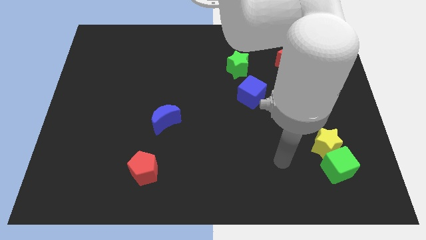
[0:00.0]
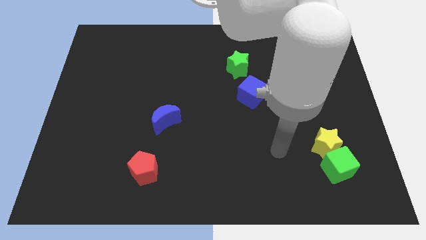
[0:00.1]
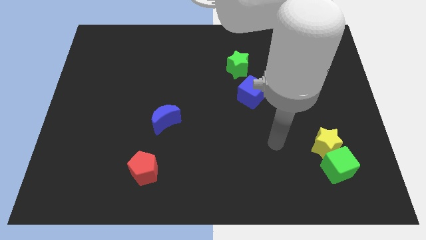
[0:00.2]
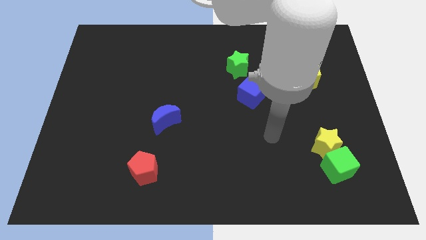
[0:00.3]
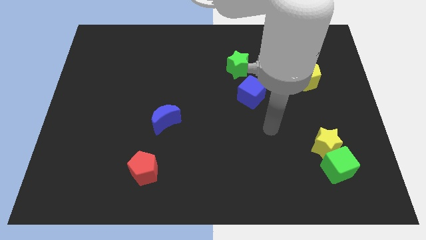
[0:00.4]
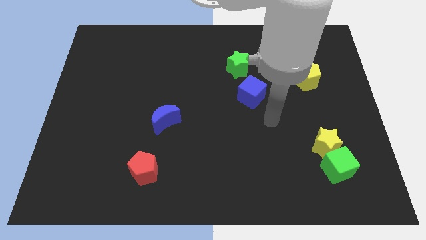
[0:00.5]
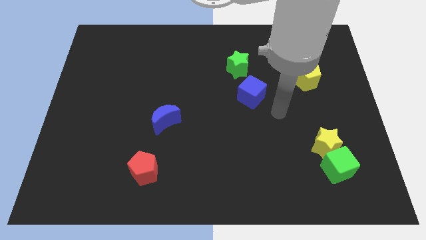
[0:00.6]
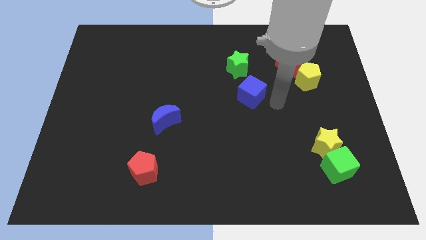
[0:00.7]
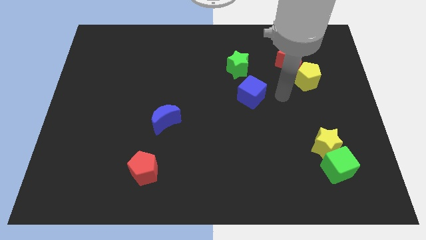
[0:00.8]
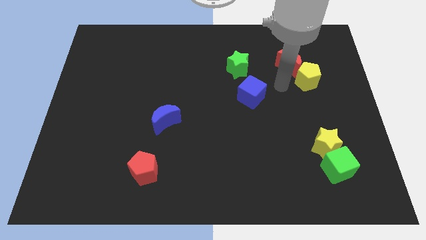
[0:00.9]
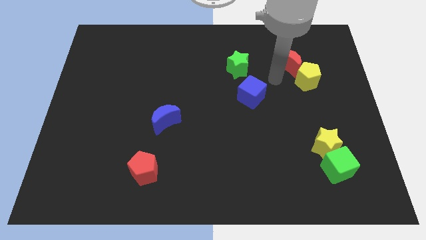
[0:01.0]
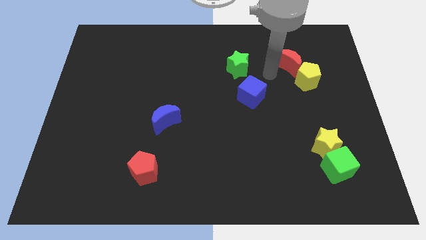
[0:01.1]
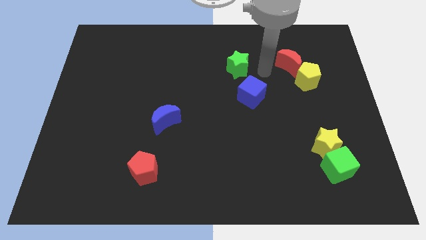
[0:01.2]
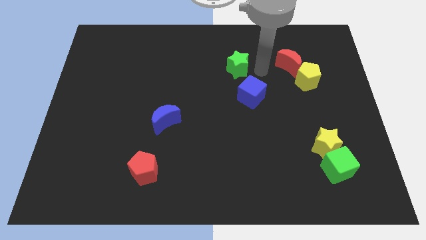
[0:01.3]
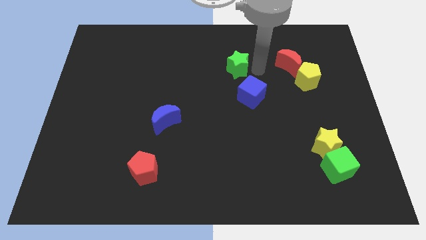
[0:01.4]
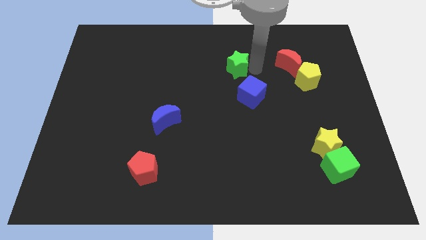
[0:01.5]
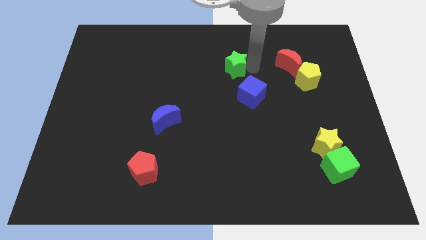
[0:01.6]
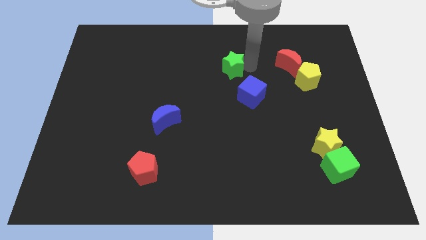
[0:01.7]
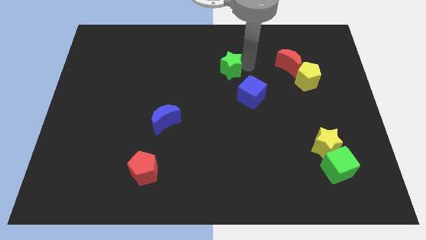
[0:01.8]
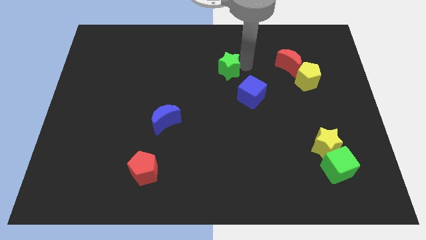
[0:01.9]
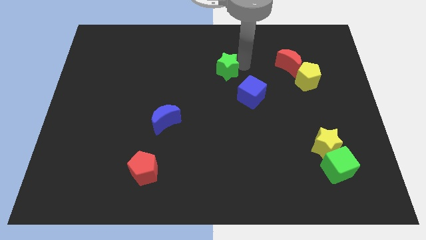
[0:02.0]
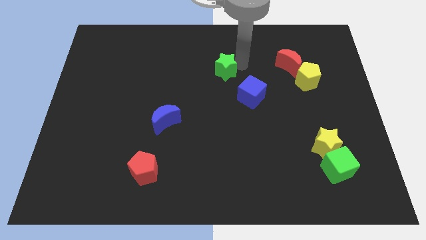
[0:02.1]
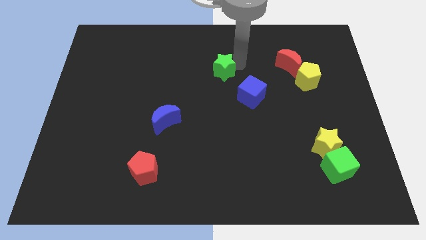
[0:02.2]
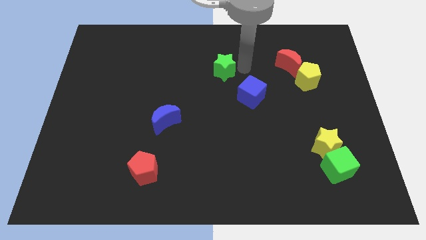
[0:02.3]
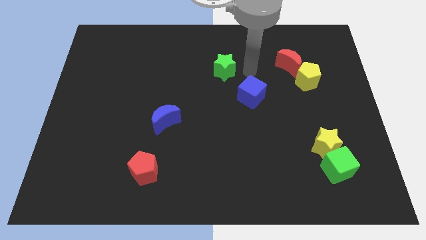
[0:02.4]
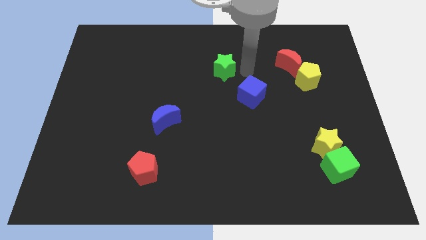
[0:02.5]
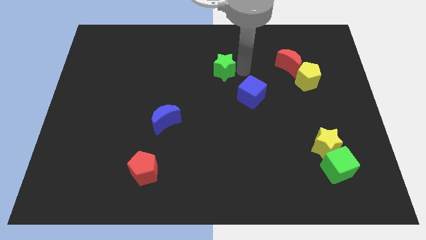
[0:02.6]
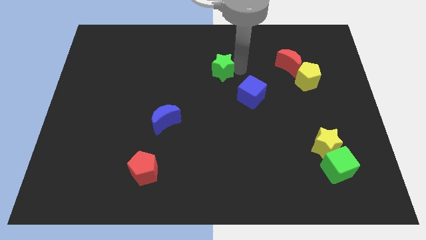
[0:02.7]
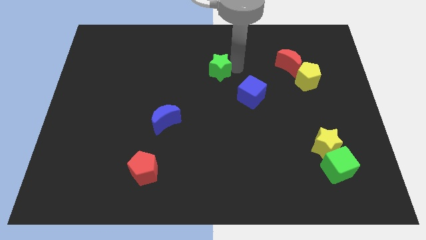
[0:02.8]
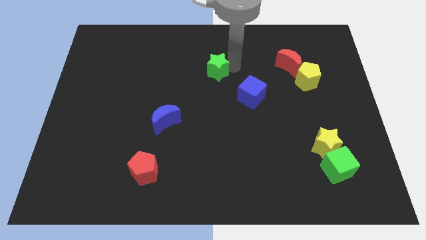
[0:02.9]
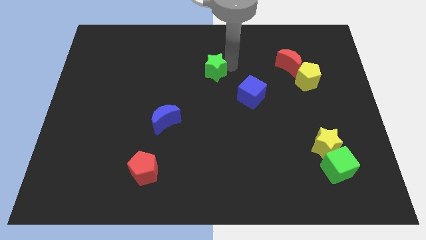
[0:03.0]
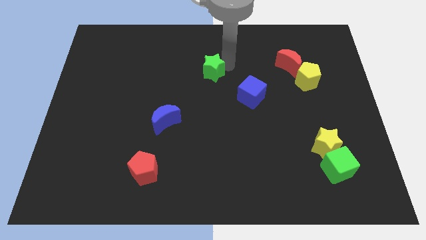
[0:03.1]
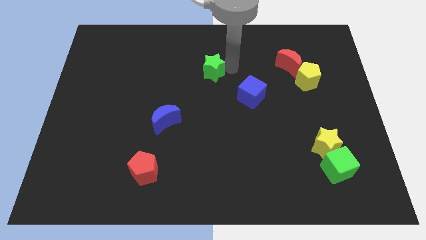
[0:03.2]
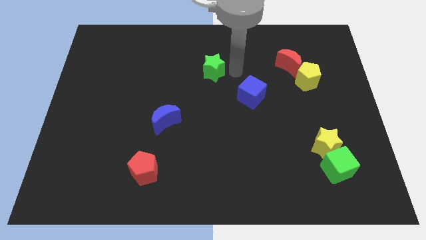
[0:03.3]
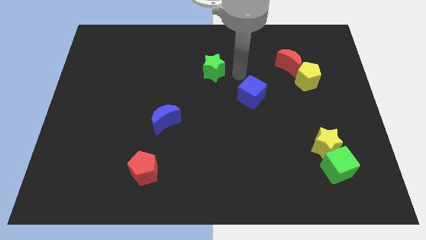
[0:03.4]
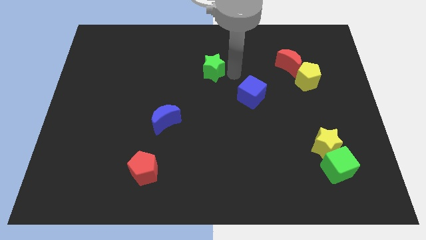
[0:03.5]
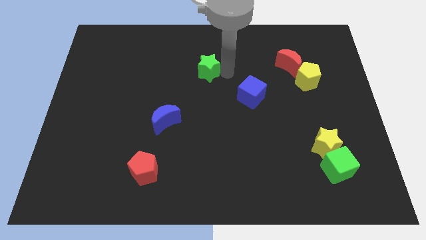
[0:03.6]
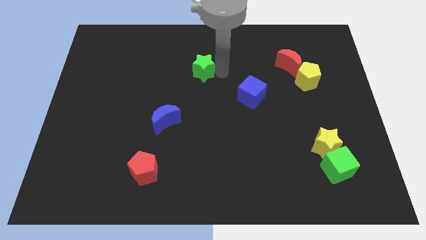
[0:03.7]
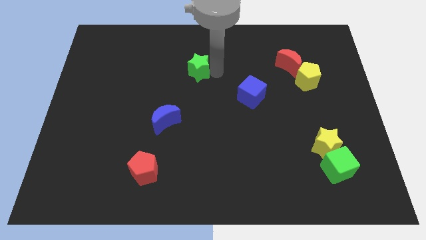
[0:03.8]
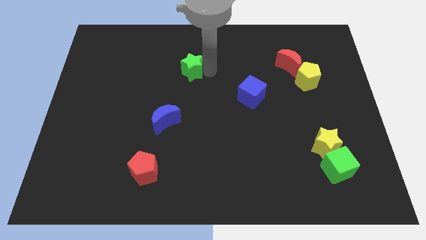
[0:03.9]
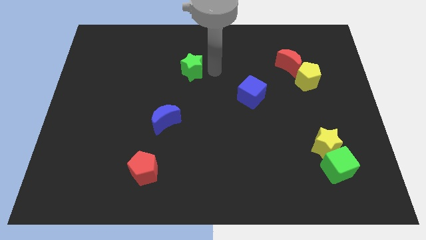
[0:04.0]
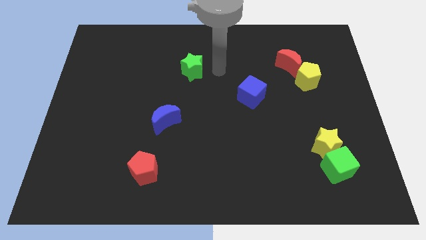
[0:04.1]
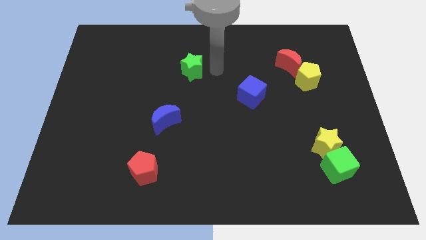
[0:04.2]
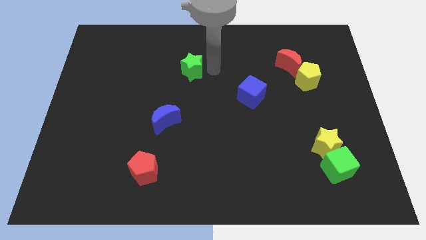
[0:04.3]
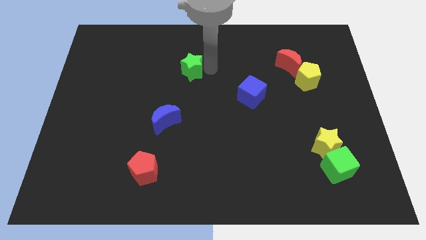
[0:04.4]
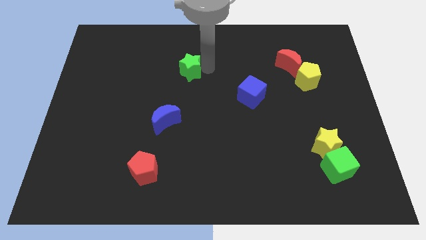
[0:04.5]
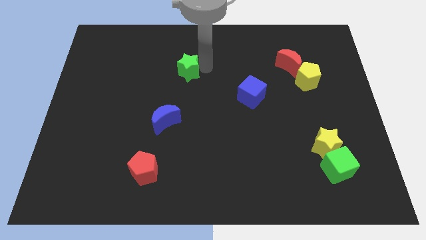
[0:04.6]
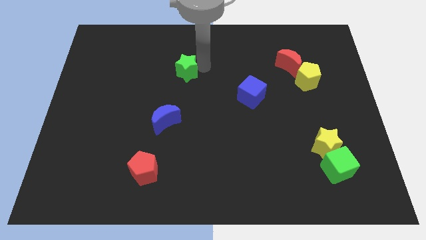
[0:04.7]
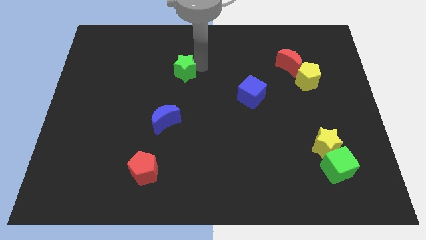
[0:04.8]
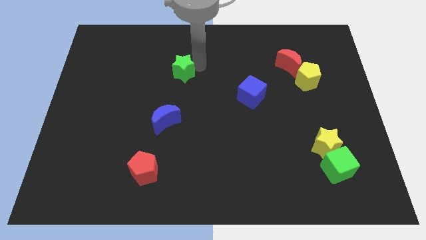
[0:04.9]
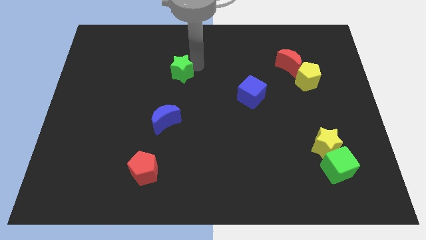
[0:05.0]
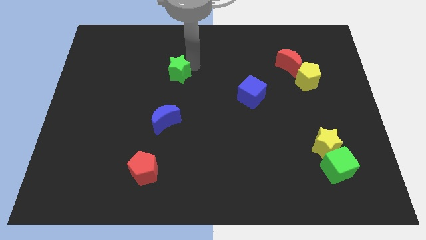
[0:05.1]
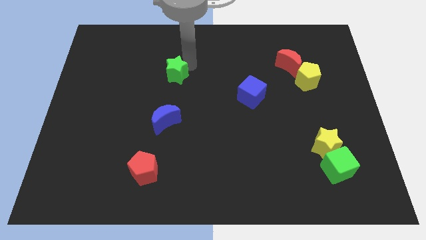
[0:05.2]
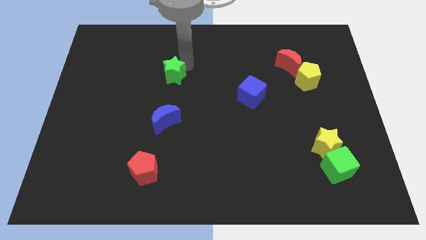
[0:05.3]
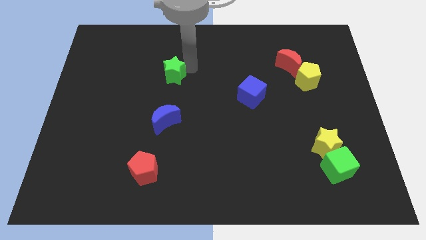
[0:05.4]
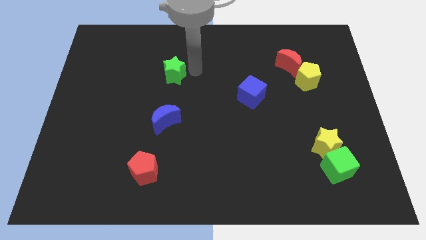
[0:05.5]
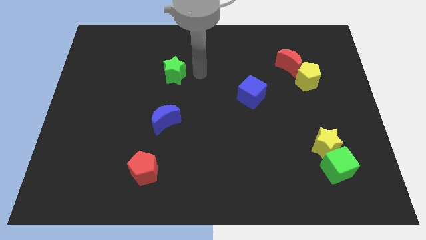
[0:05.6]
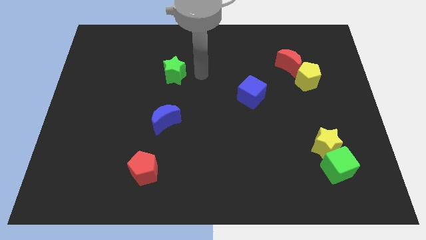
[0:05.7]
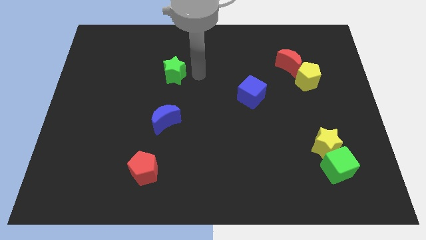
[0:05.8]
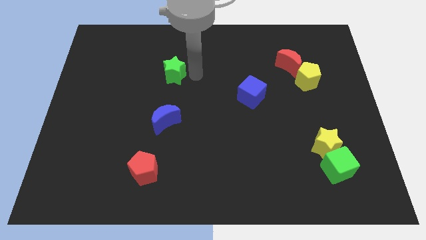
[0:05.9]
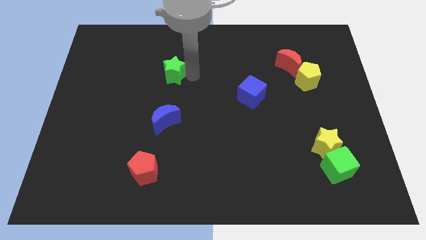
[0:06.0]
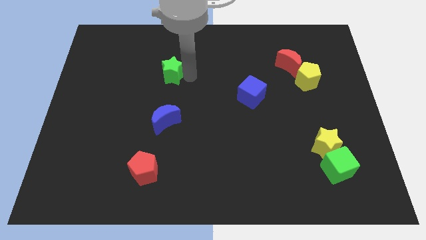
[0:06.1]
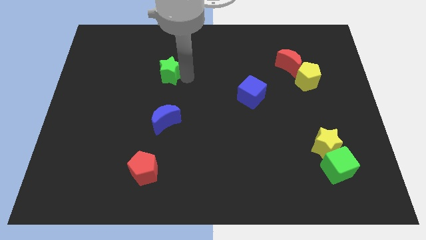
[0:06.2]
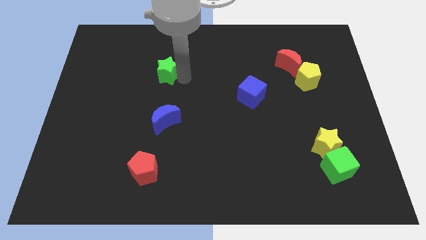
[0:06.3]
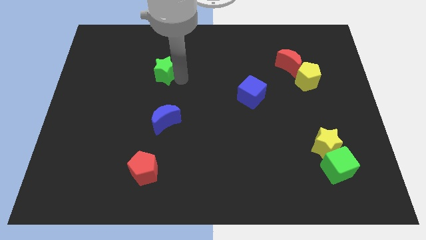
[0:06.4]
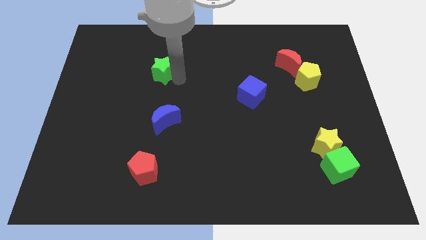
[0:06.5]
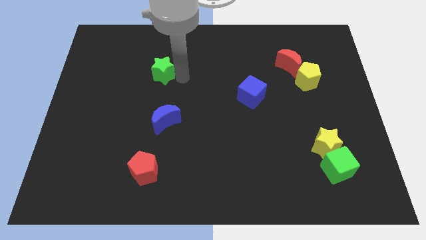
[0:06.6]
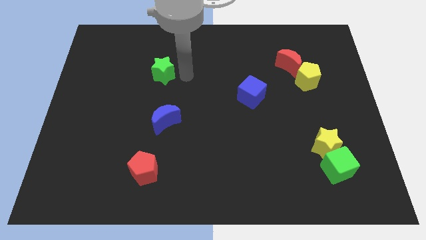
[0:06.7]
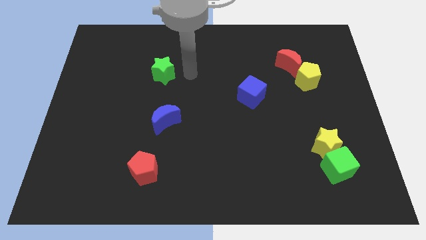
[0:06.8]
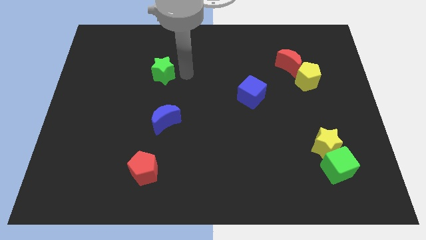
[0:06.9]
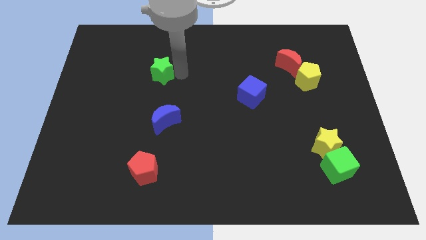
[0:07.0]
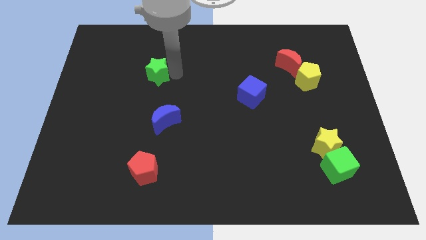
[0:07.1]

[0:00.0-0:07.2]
slide the green star left

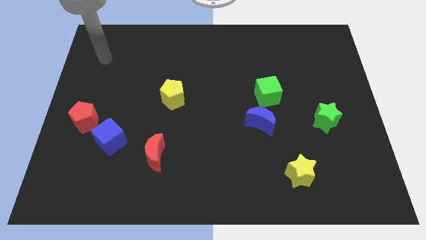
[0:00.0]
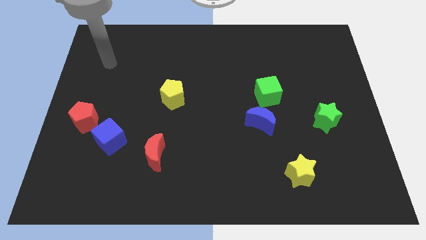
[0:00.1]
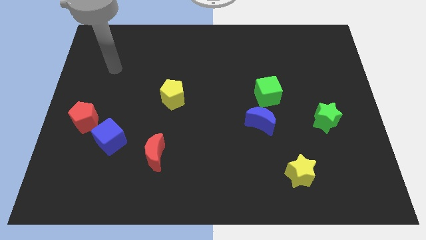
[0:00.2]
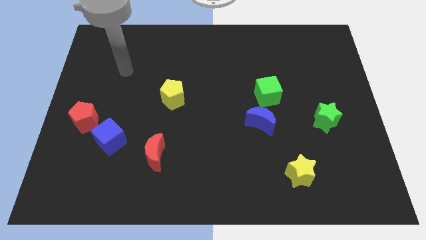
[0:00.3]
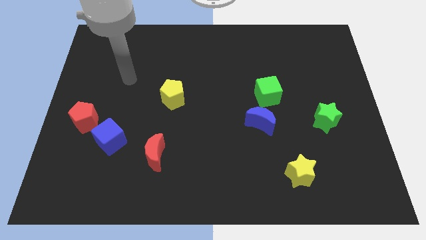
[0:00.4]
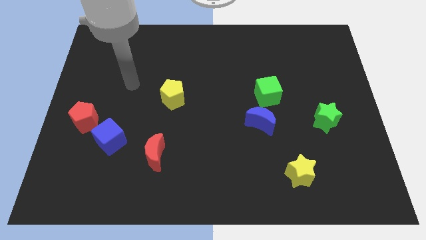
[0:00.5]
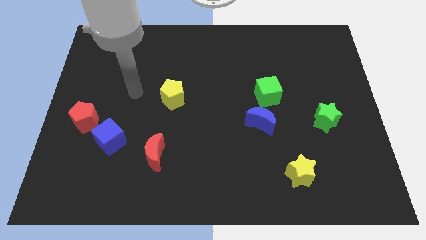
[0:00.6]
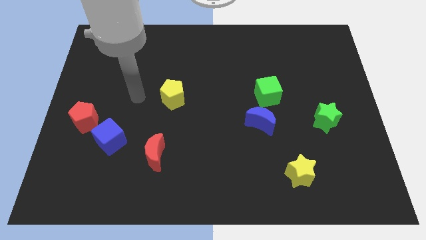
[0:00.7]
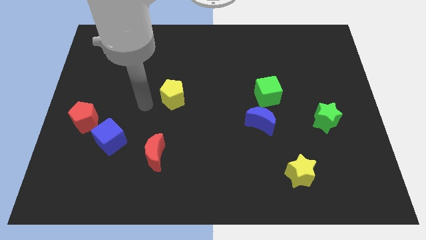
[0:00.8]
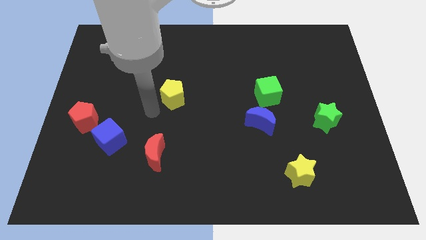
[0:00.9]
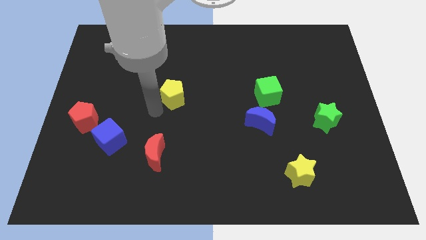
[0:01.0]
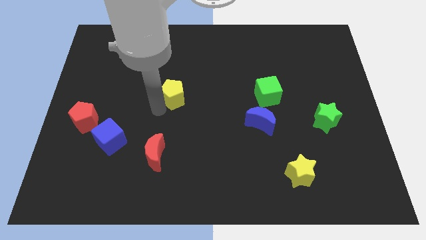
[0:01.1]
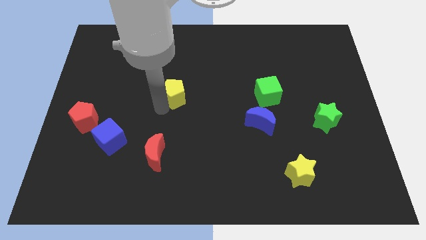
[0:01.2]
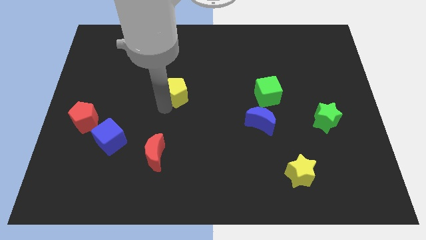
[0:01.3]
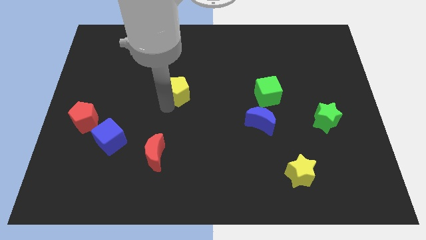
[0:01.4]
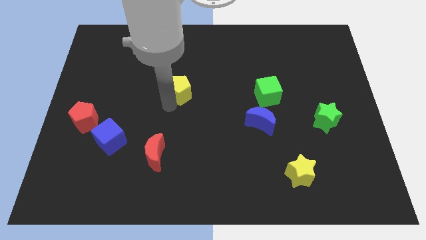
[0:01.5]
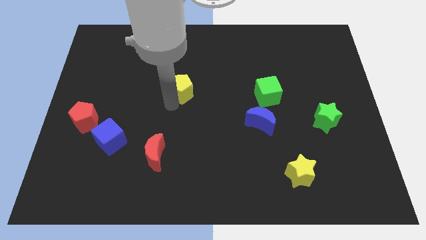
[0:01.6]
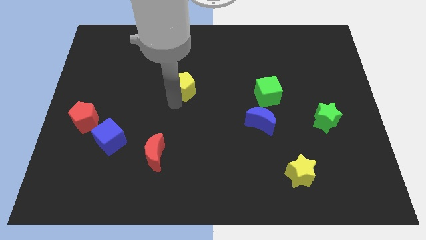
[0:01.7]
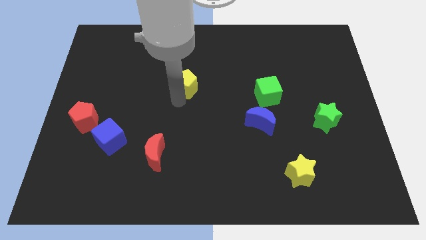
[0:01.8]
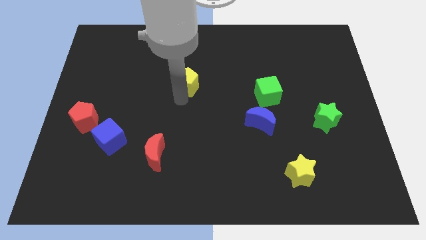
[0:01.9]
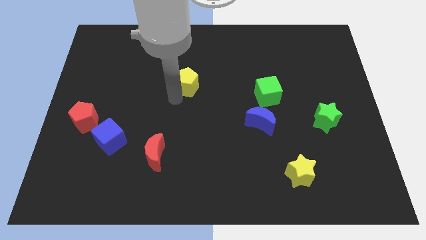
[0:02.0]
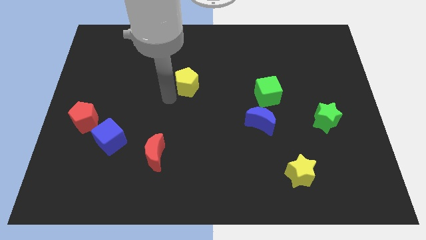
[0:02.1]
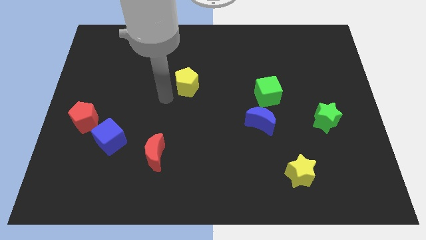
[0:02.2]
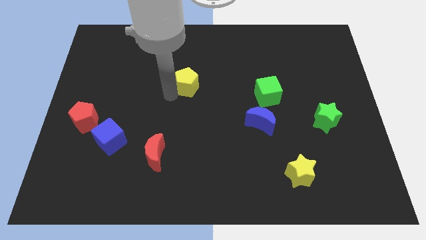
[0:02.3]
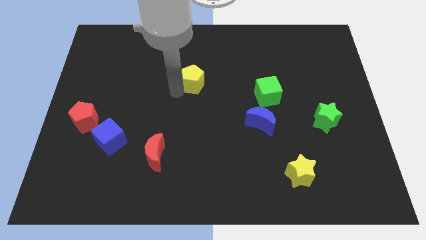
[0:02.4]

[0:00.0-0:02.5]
slide the yellow pentagon a little upwards and right
